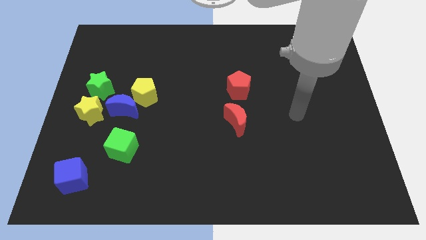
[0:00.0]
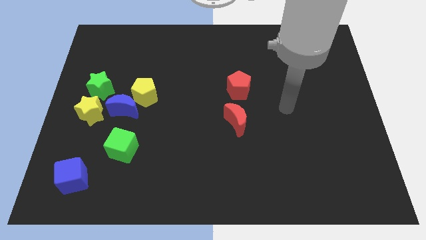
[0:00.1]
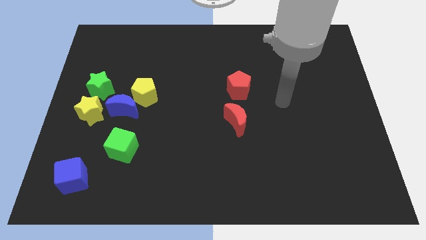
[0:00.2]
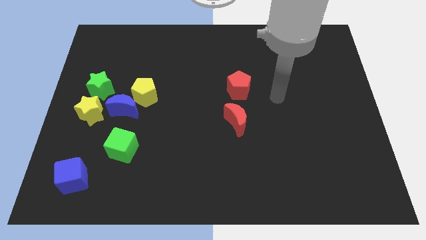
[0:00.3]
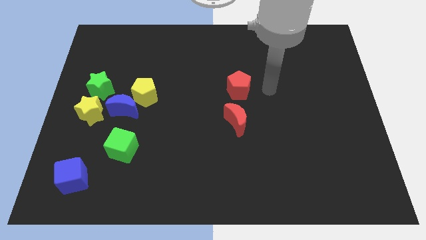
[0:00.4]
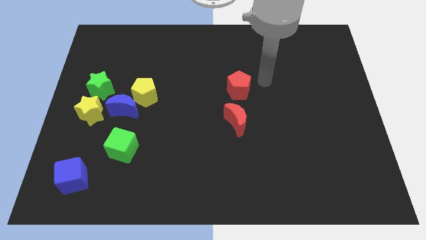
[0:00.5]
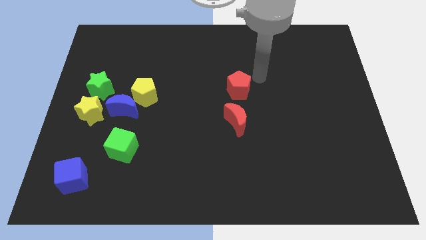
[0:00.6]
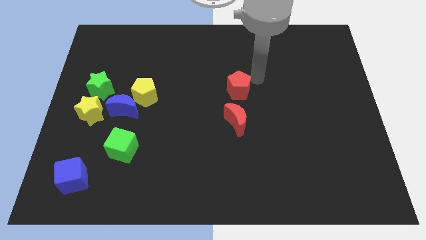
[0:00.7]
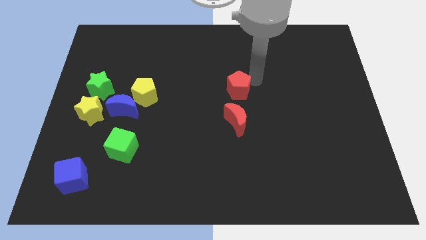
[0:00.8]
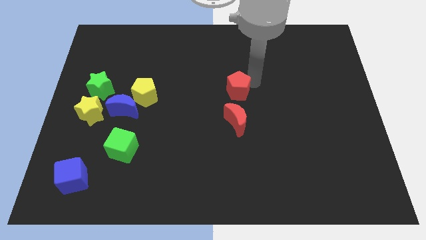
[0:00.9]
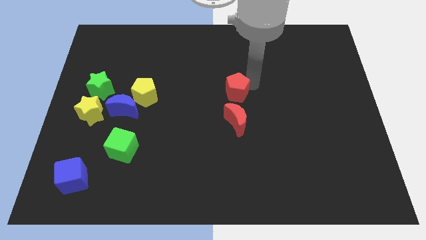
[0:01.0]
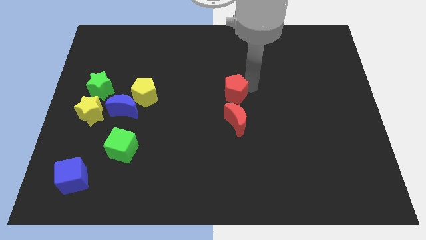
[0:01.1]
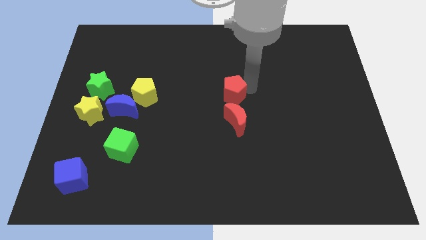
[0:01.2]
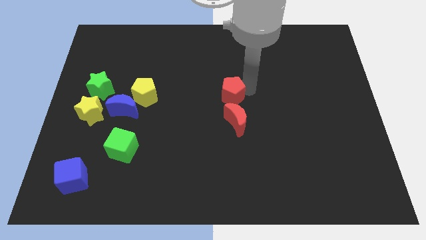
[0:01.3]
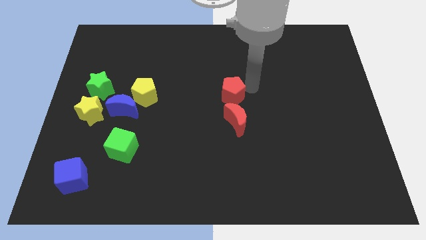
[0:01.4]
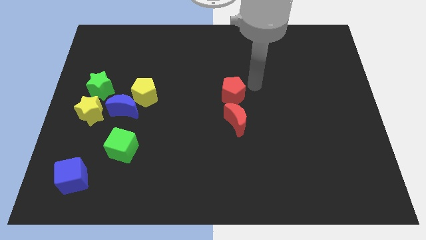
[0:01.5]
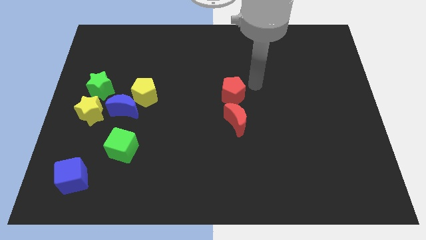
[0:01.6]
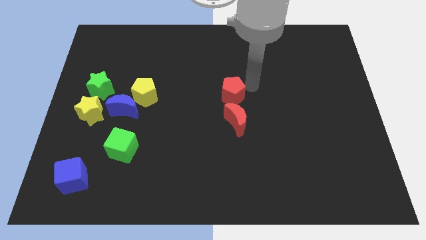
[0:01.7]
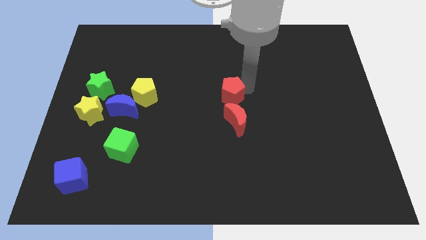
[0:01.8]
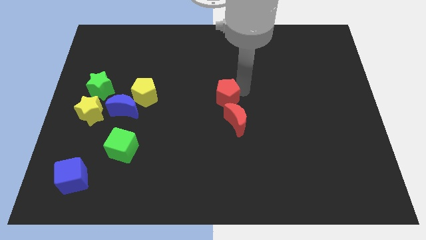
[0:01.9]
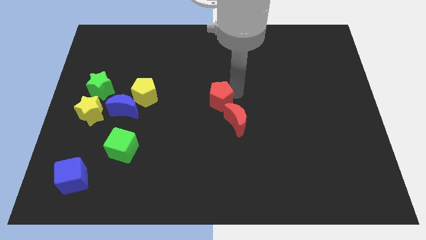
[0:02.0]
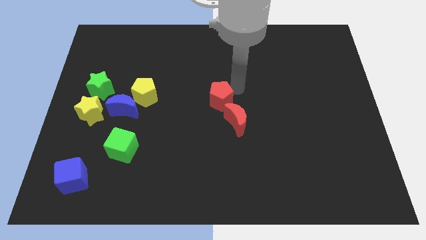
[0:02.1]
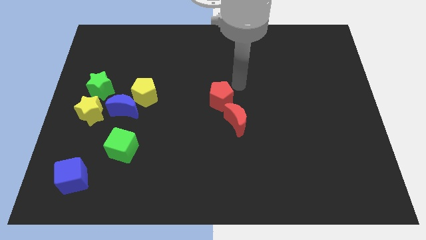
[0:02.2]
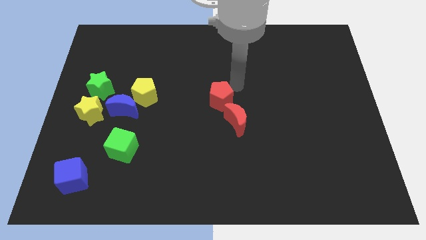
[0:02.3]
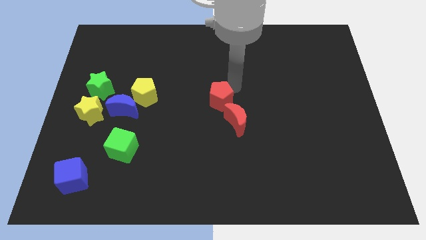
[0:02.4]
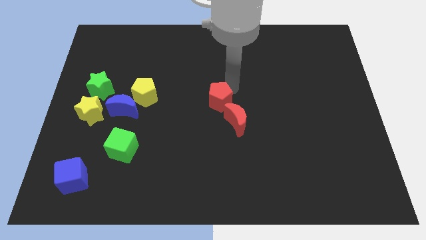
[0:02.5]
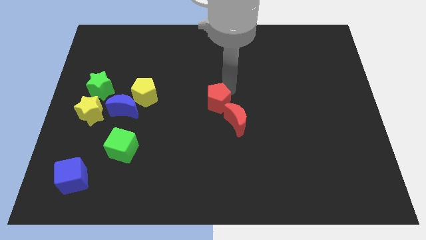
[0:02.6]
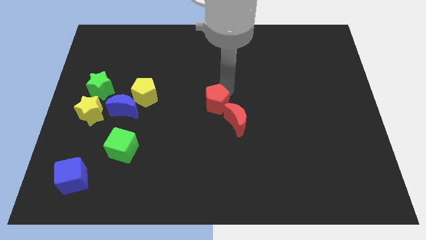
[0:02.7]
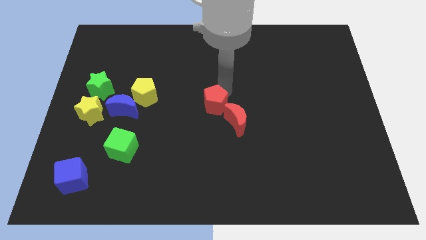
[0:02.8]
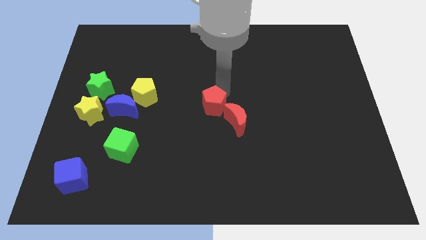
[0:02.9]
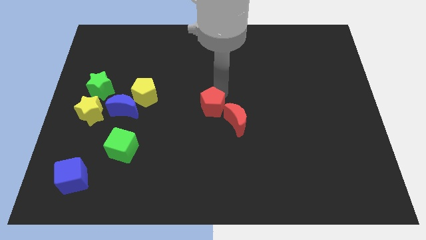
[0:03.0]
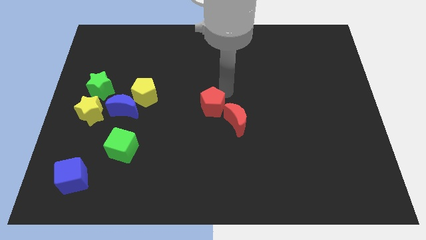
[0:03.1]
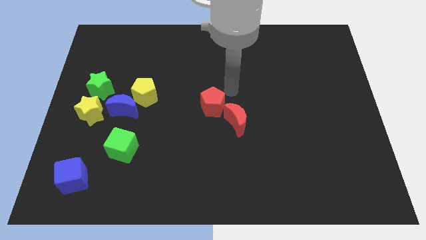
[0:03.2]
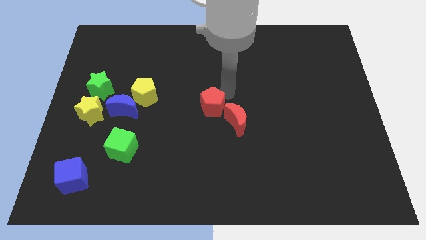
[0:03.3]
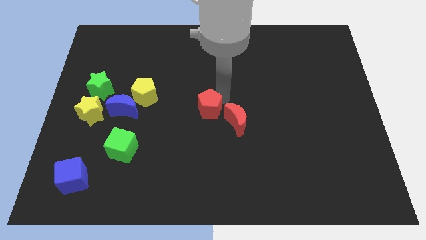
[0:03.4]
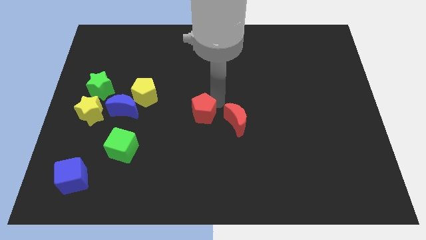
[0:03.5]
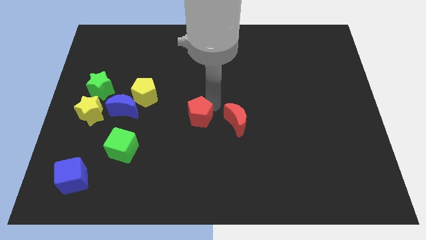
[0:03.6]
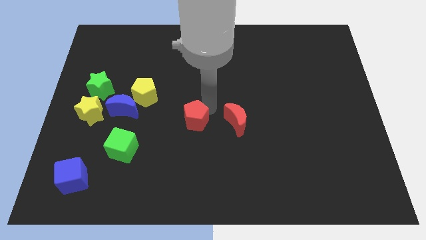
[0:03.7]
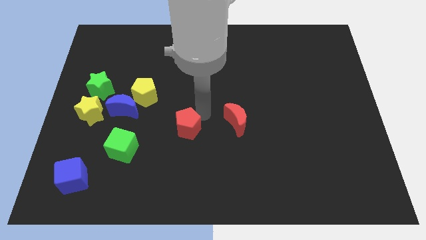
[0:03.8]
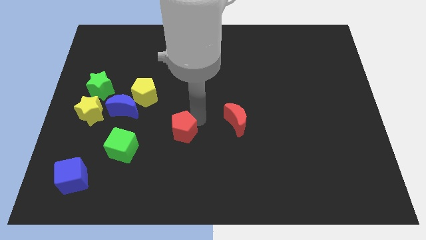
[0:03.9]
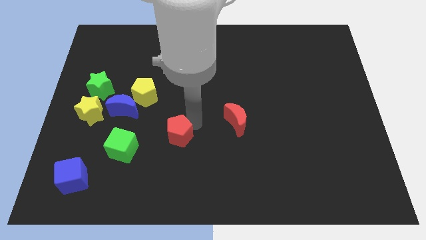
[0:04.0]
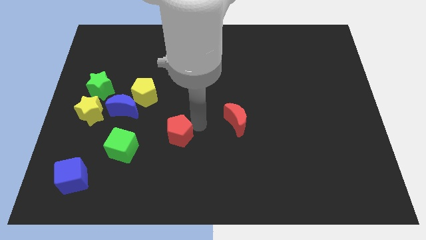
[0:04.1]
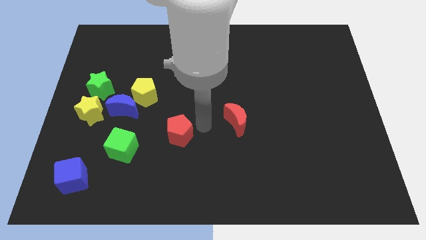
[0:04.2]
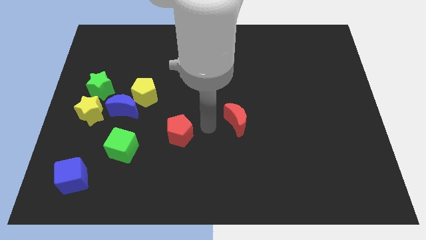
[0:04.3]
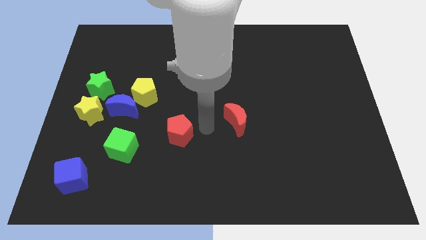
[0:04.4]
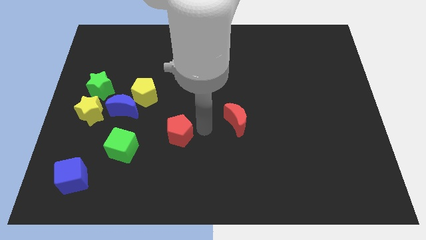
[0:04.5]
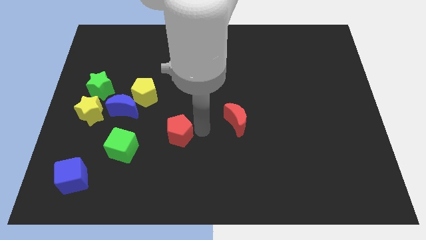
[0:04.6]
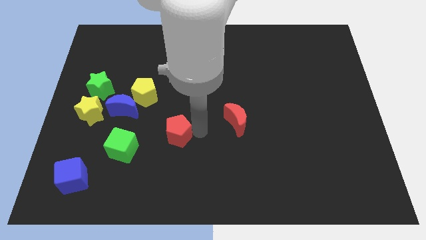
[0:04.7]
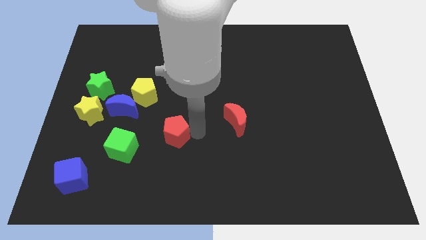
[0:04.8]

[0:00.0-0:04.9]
slide the red pentagon down and to the left

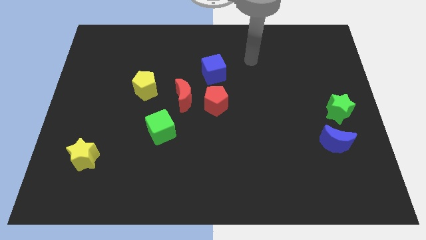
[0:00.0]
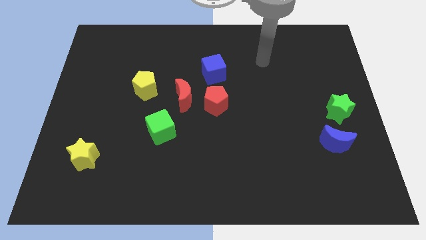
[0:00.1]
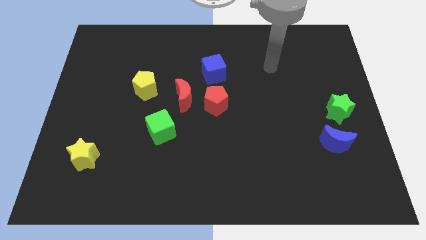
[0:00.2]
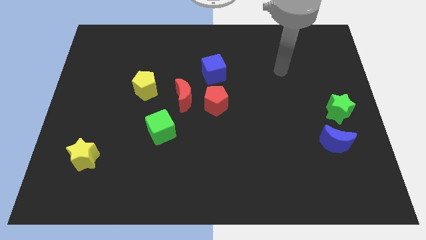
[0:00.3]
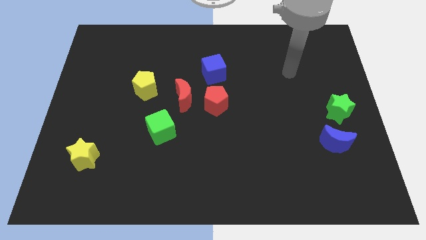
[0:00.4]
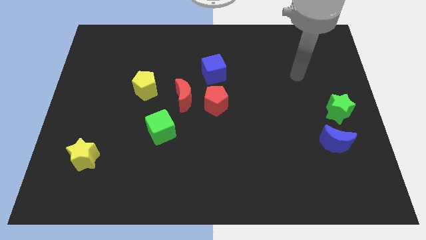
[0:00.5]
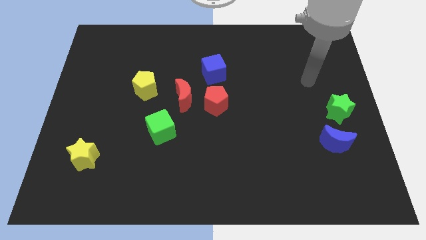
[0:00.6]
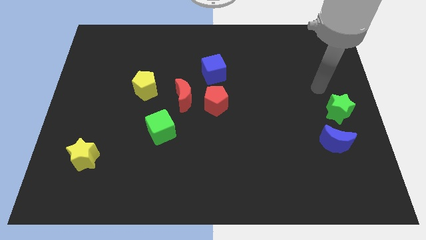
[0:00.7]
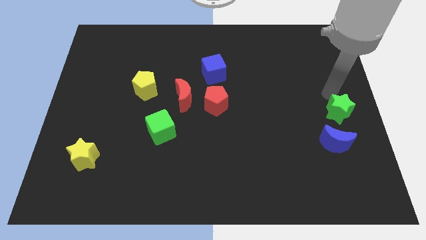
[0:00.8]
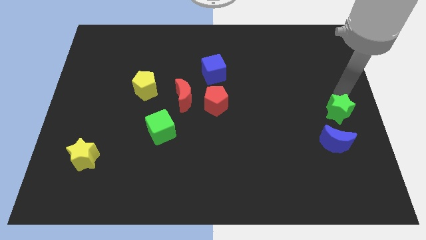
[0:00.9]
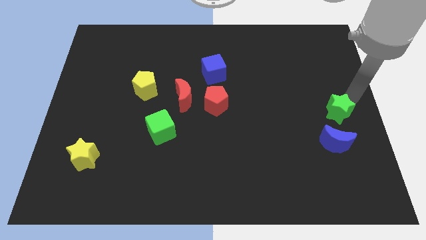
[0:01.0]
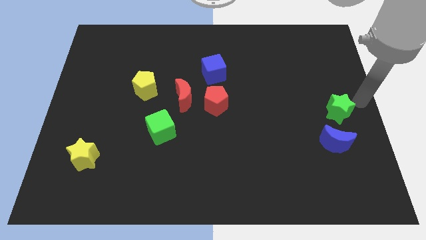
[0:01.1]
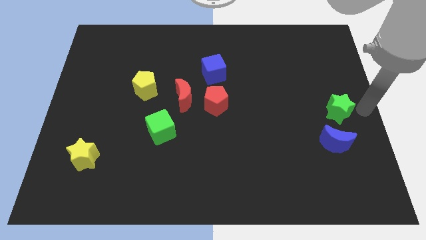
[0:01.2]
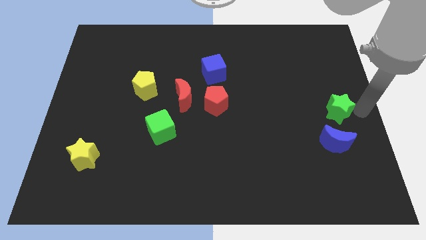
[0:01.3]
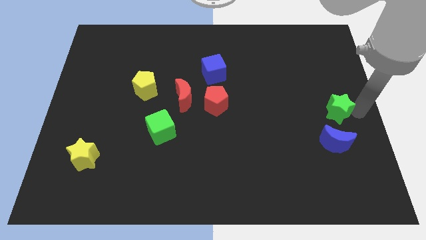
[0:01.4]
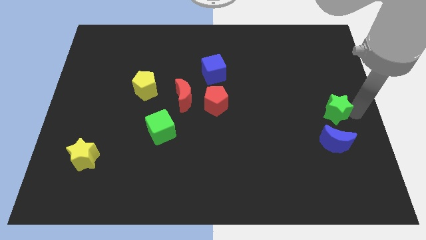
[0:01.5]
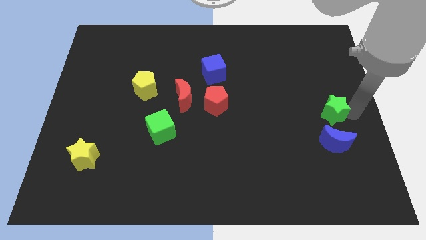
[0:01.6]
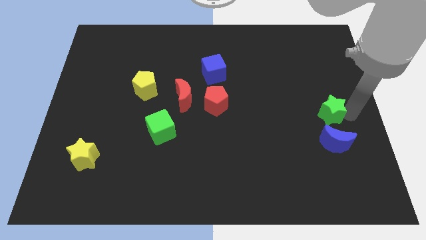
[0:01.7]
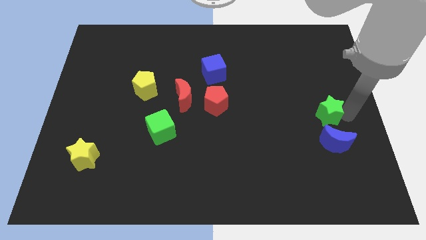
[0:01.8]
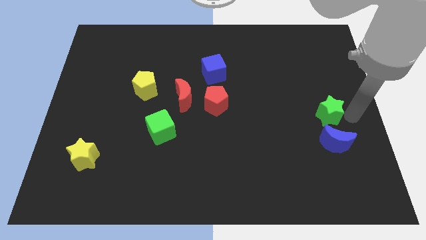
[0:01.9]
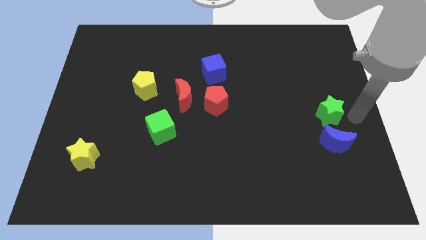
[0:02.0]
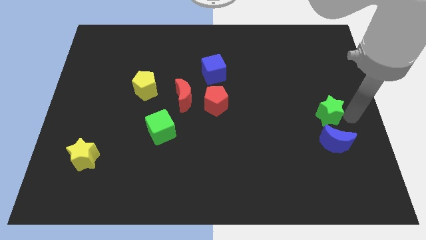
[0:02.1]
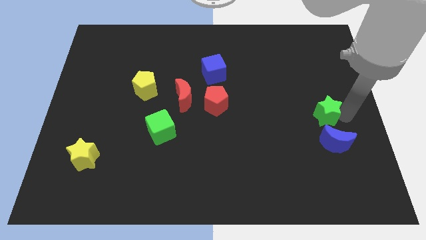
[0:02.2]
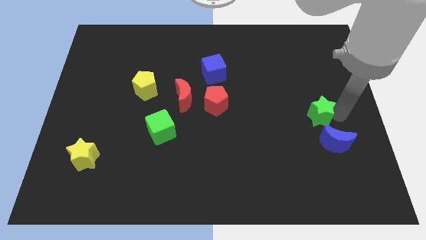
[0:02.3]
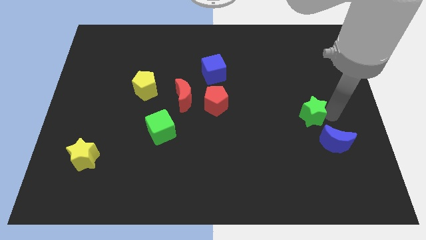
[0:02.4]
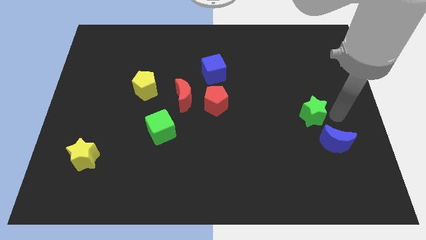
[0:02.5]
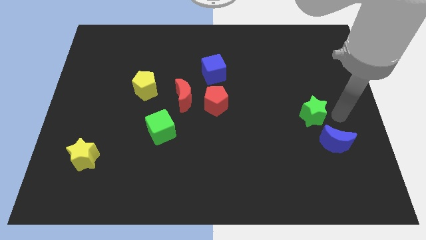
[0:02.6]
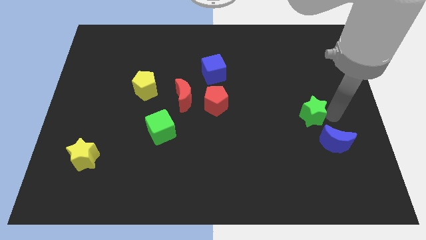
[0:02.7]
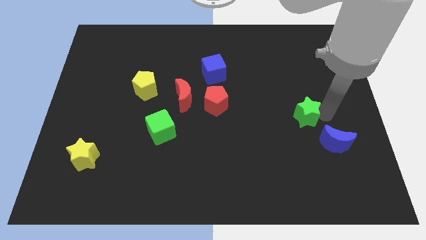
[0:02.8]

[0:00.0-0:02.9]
move the green star to the left a little

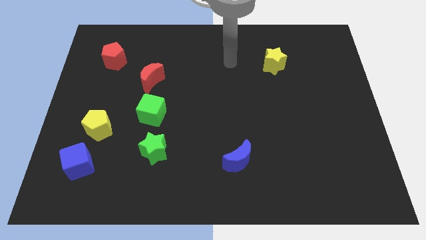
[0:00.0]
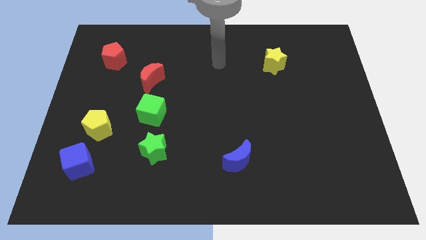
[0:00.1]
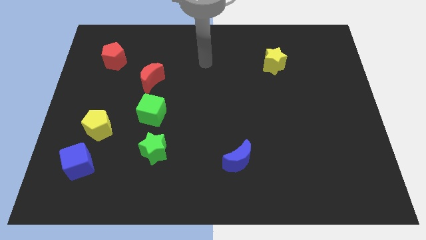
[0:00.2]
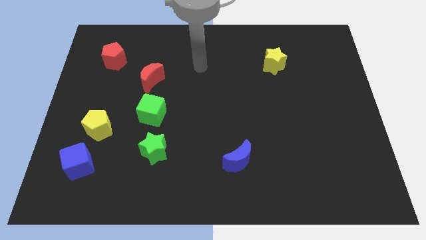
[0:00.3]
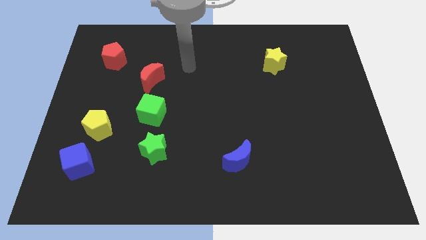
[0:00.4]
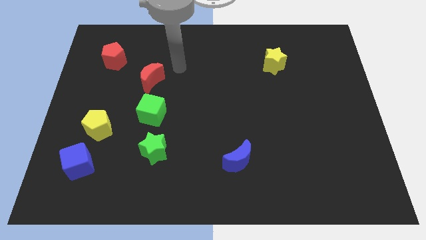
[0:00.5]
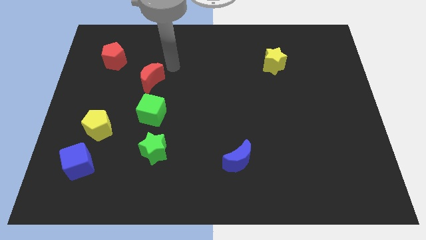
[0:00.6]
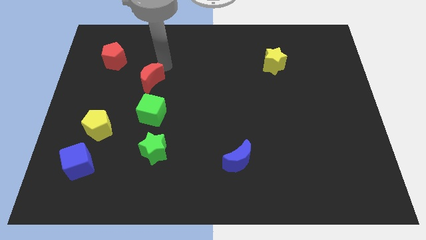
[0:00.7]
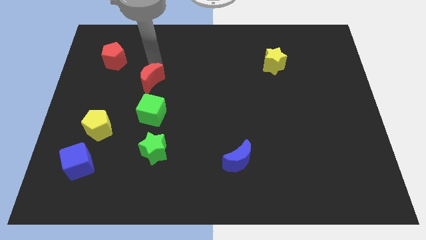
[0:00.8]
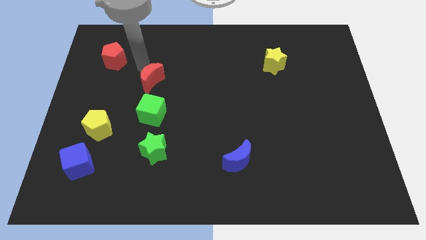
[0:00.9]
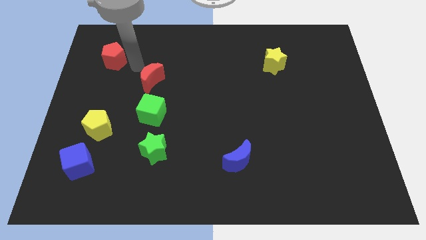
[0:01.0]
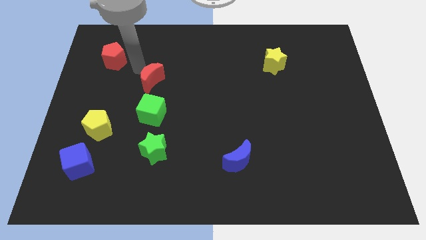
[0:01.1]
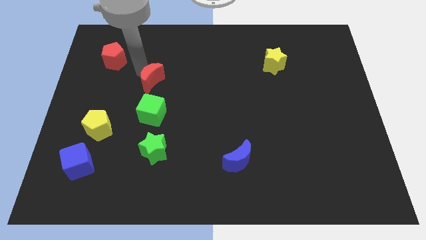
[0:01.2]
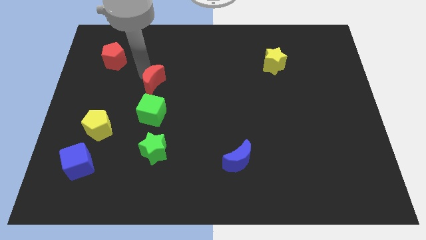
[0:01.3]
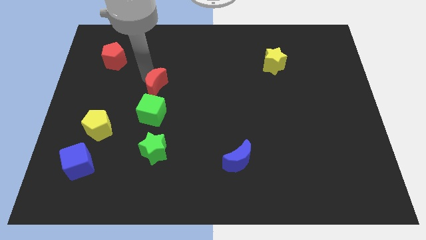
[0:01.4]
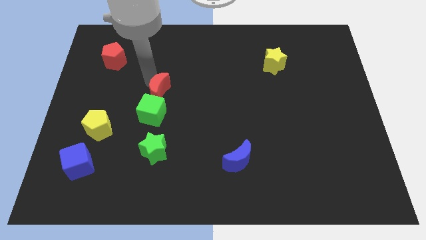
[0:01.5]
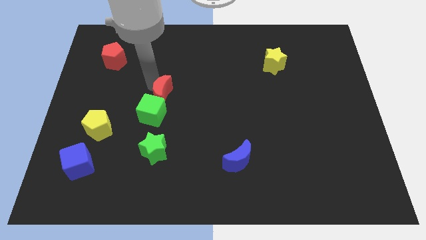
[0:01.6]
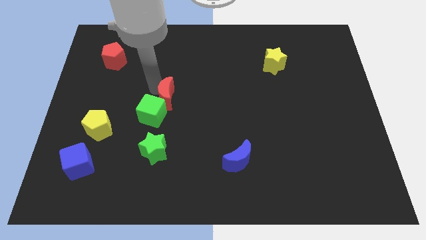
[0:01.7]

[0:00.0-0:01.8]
push the red moon a little downwards and then right
